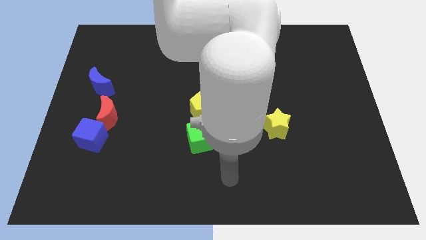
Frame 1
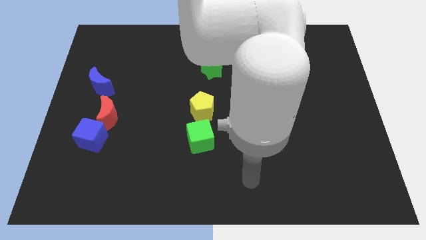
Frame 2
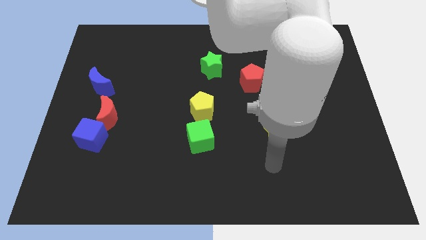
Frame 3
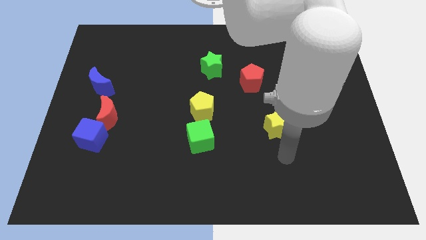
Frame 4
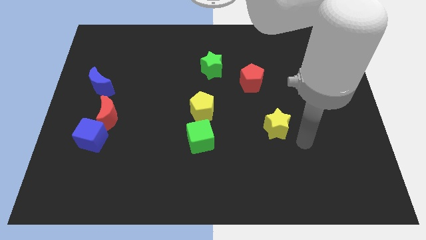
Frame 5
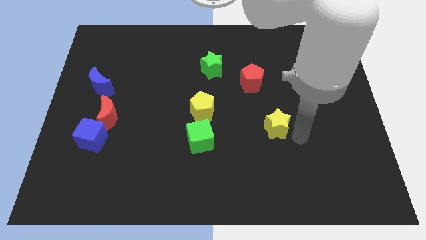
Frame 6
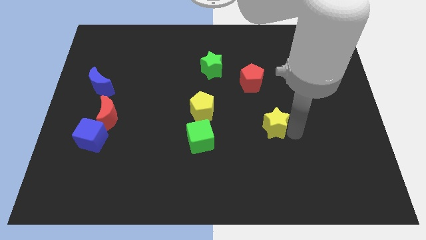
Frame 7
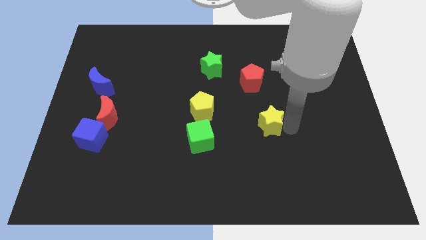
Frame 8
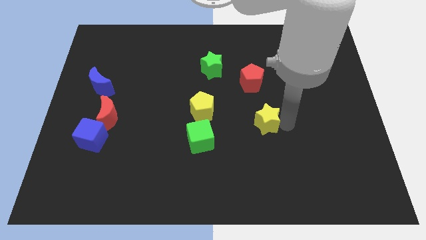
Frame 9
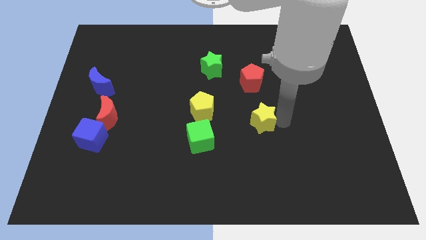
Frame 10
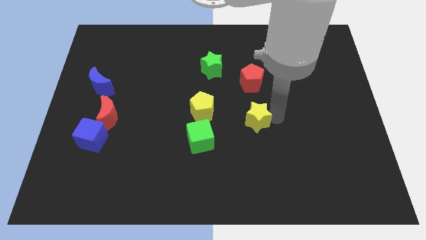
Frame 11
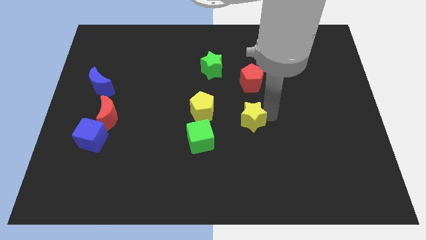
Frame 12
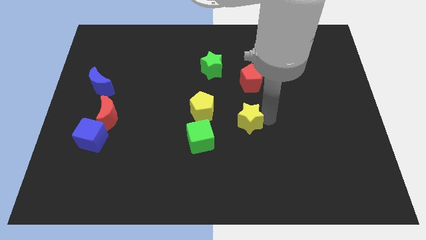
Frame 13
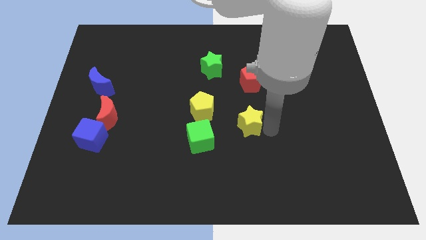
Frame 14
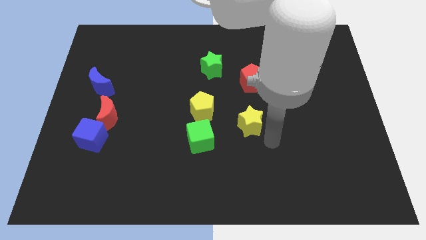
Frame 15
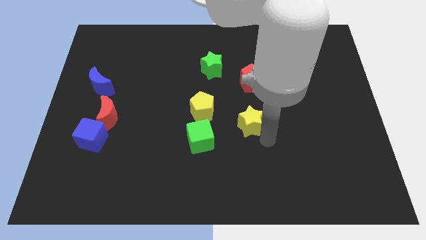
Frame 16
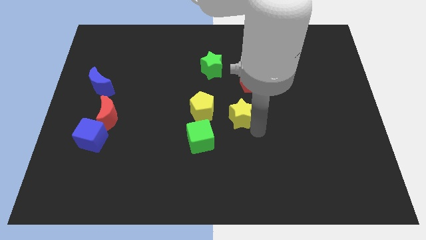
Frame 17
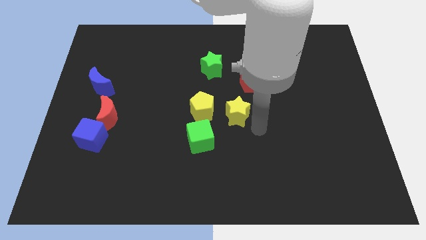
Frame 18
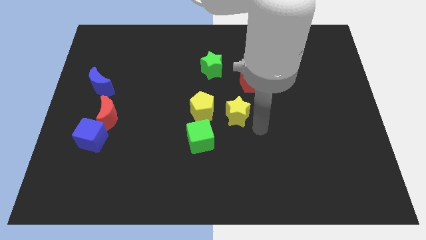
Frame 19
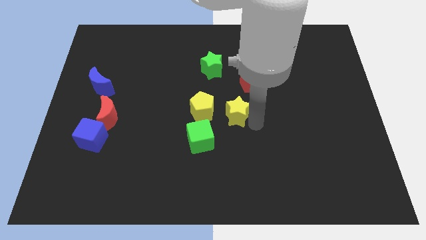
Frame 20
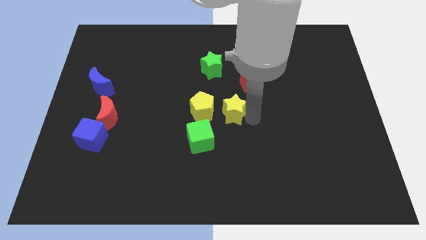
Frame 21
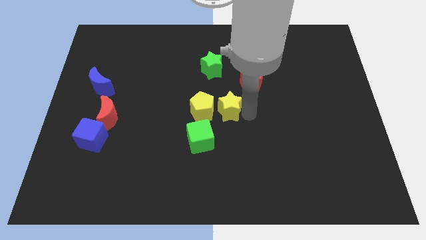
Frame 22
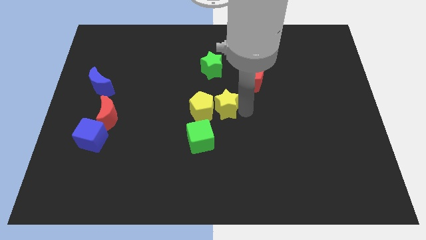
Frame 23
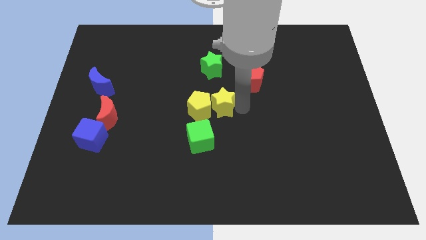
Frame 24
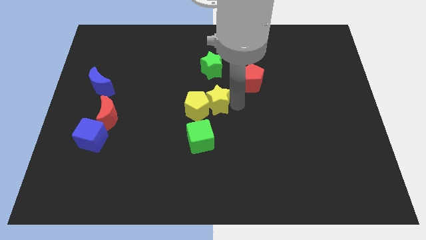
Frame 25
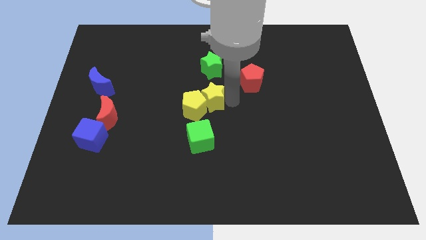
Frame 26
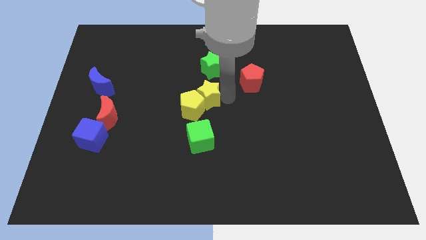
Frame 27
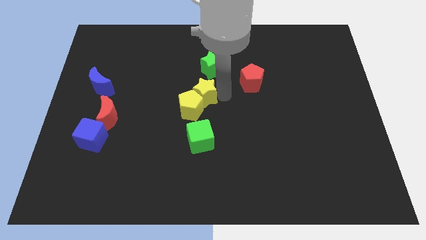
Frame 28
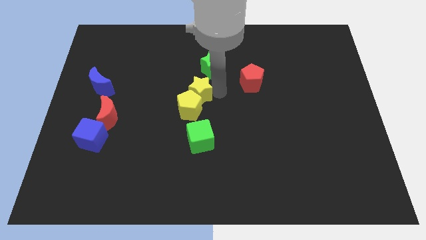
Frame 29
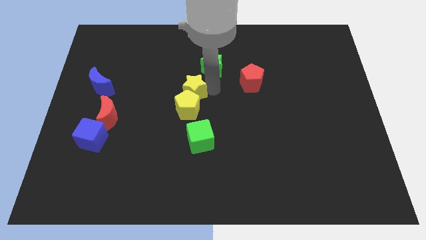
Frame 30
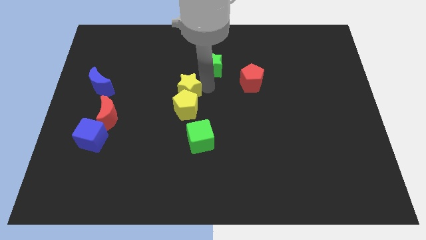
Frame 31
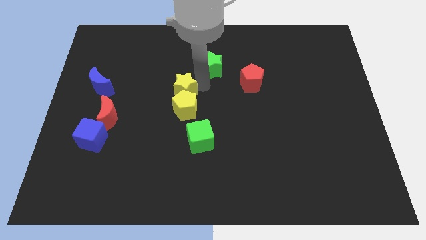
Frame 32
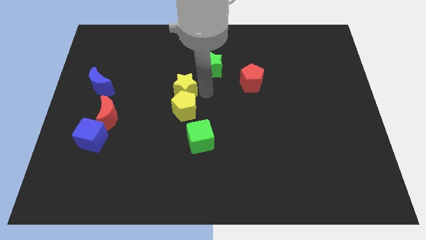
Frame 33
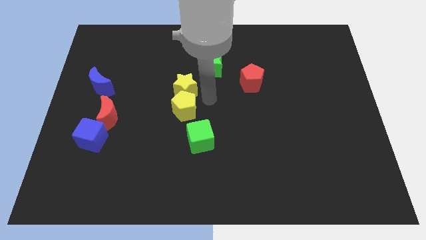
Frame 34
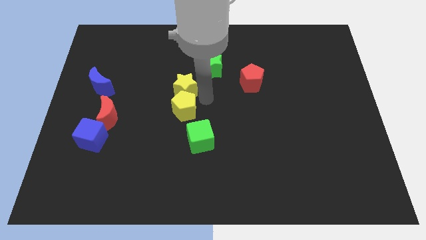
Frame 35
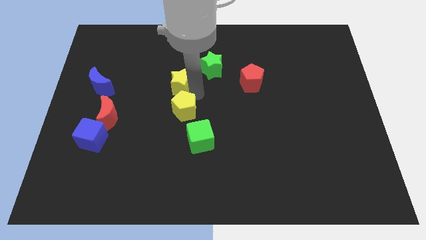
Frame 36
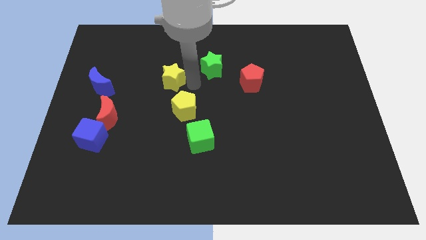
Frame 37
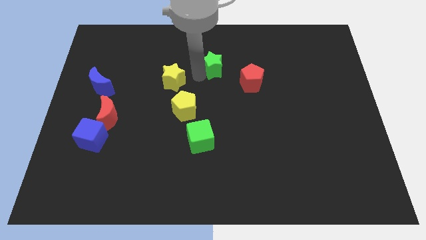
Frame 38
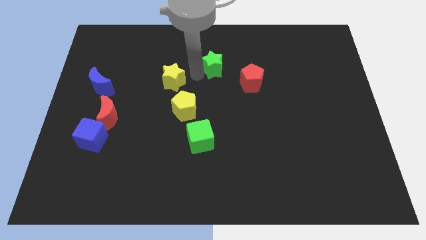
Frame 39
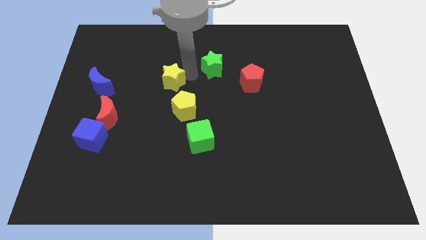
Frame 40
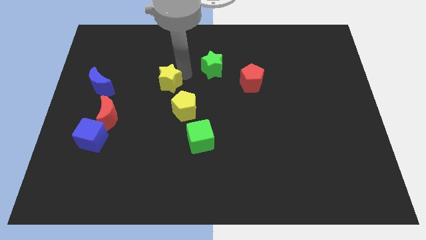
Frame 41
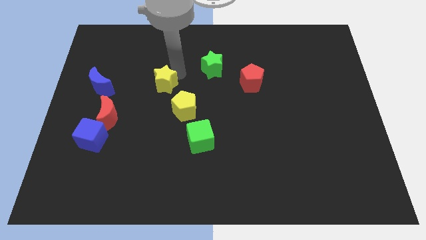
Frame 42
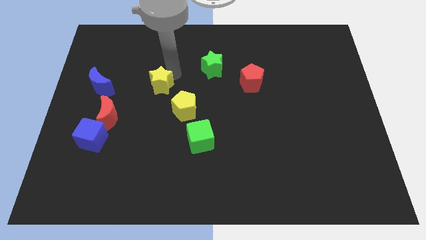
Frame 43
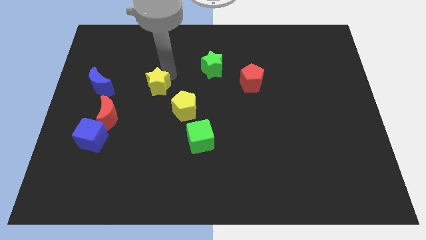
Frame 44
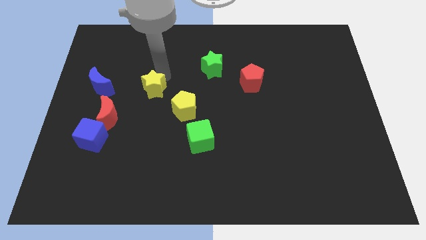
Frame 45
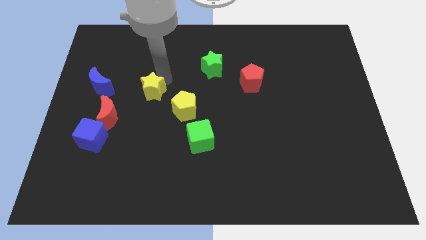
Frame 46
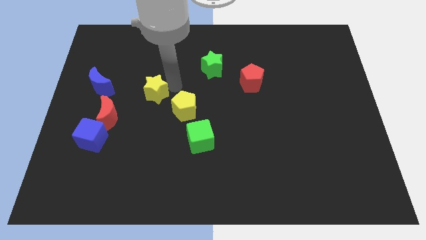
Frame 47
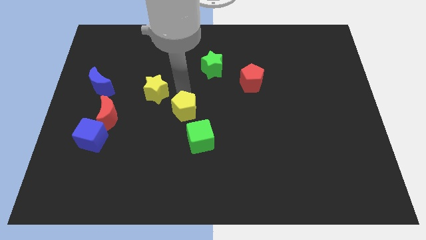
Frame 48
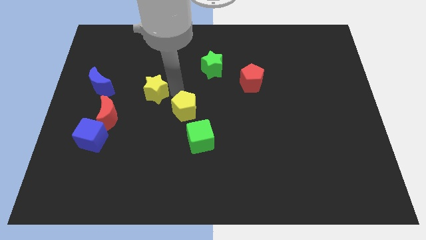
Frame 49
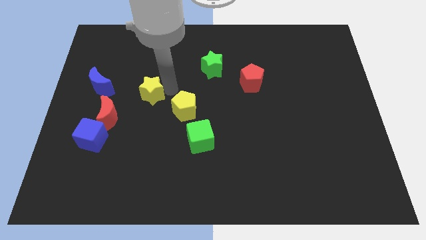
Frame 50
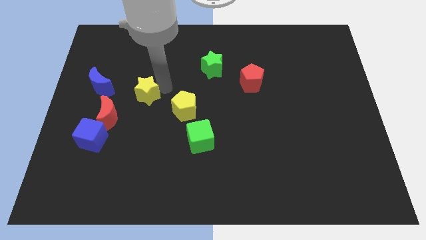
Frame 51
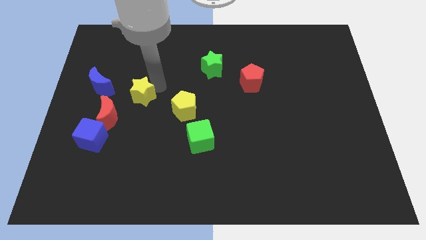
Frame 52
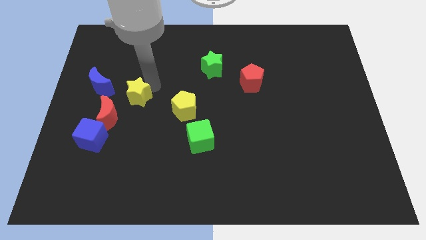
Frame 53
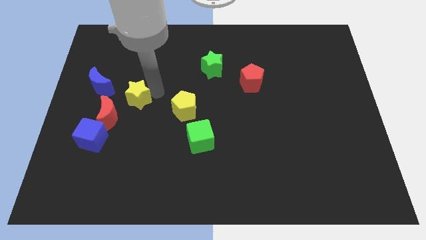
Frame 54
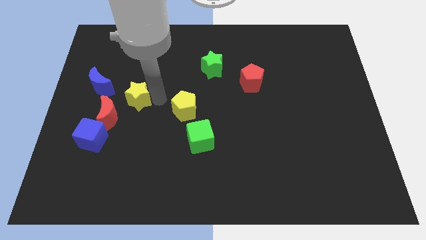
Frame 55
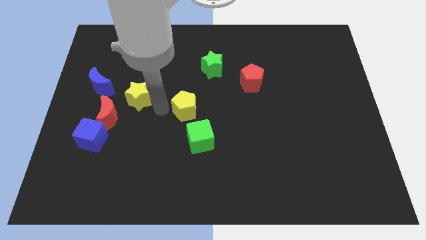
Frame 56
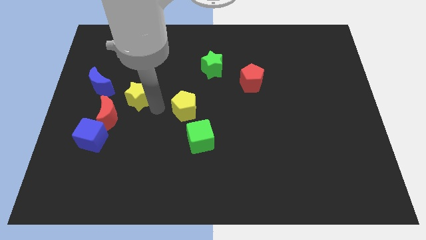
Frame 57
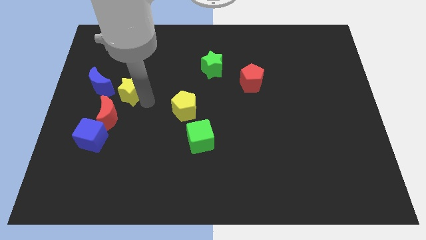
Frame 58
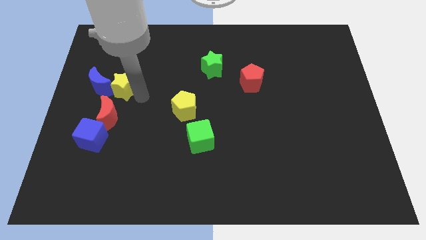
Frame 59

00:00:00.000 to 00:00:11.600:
slide the yellow star towards the blue moon

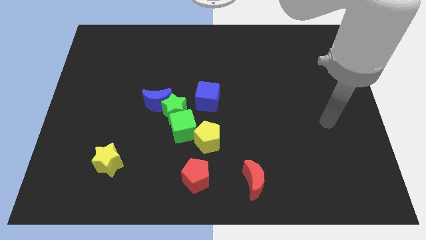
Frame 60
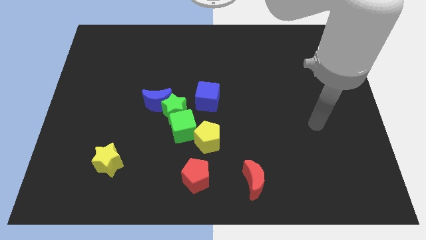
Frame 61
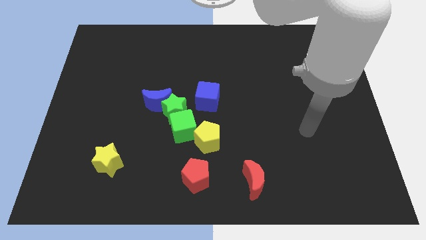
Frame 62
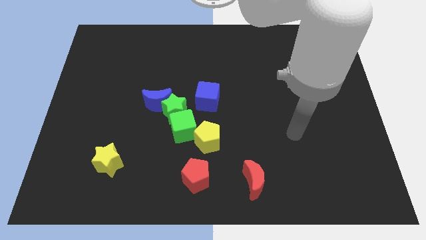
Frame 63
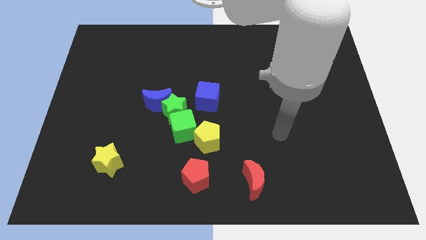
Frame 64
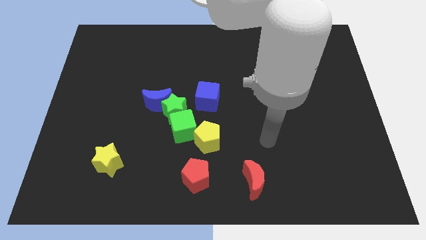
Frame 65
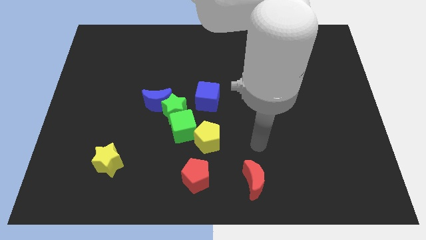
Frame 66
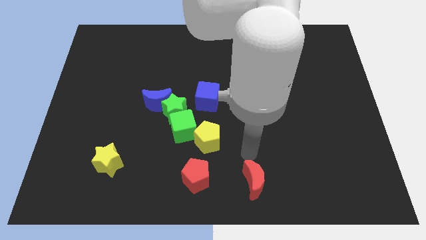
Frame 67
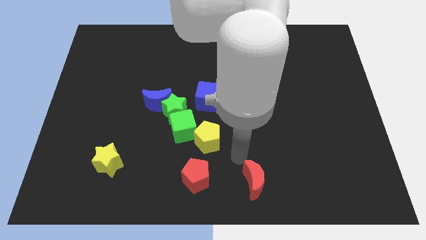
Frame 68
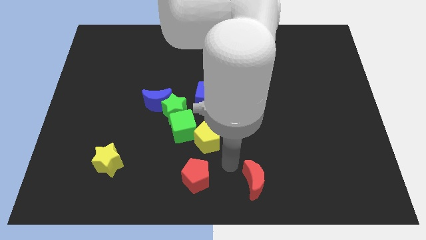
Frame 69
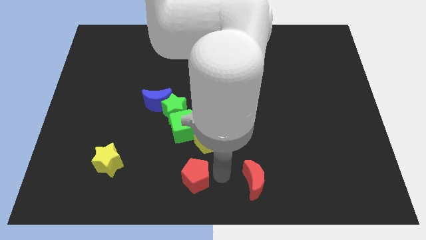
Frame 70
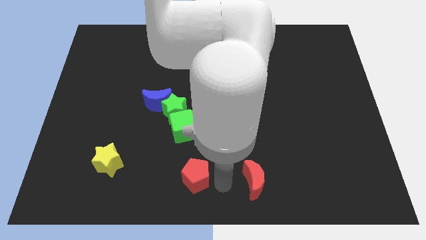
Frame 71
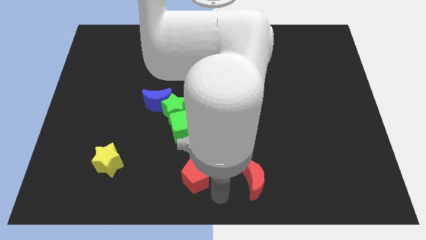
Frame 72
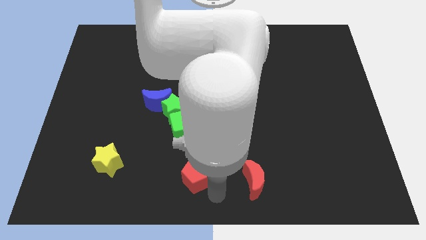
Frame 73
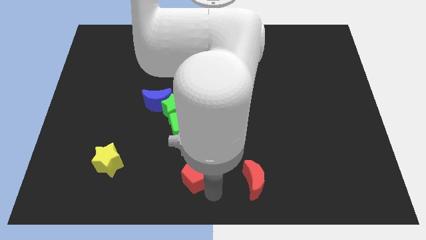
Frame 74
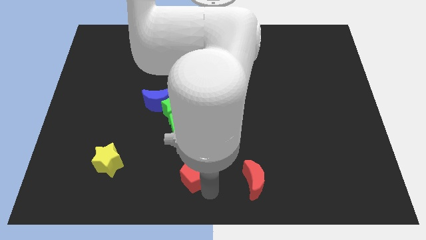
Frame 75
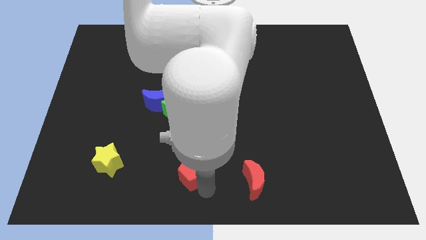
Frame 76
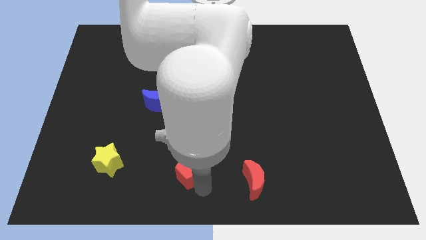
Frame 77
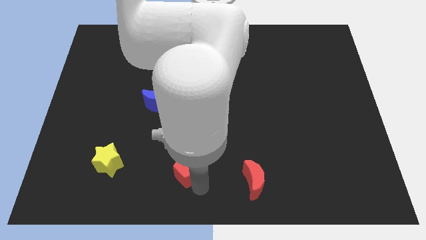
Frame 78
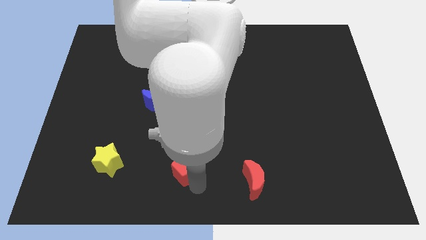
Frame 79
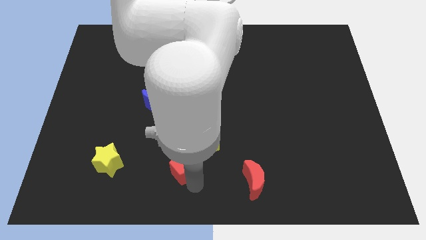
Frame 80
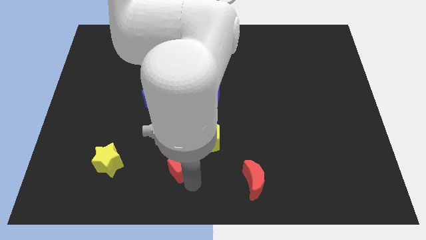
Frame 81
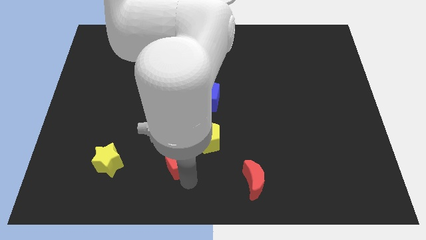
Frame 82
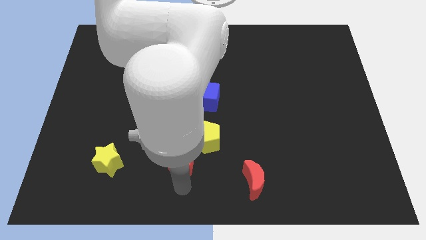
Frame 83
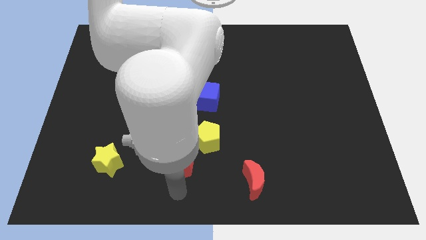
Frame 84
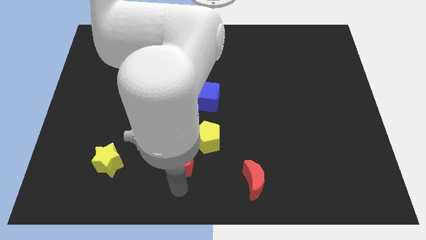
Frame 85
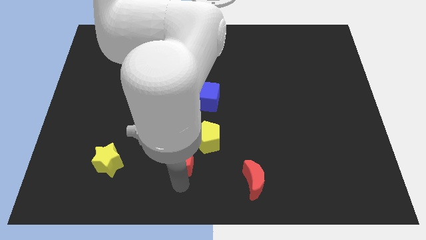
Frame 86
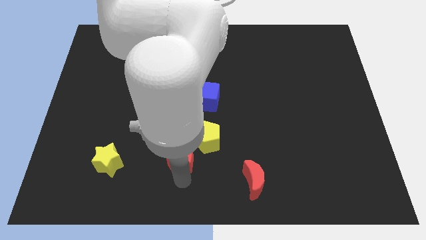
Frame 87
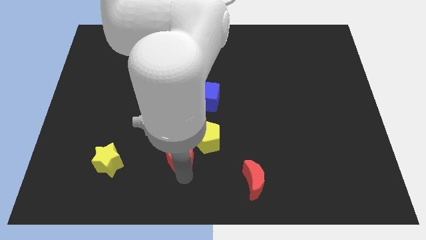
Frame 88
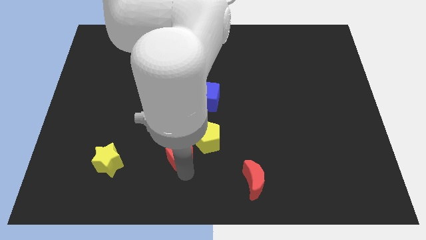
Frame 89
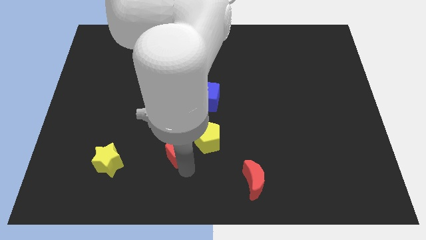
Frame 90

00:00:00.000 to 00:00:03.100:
put the red pentagon next to the green cube
